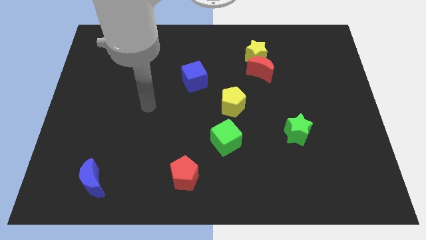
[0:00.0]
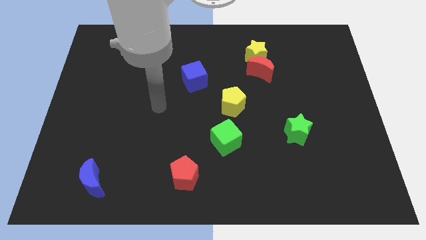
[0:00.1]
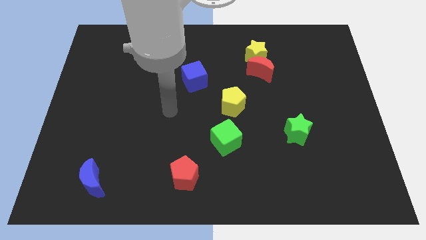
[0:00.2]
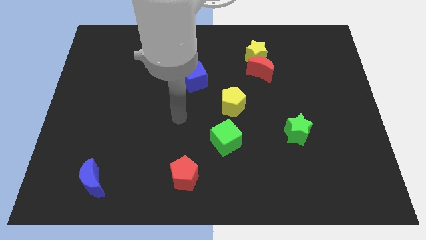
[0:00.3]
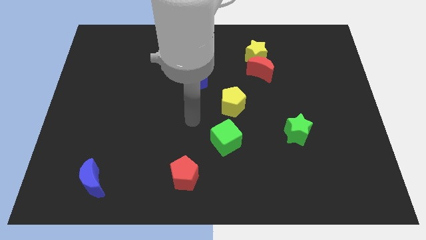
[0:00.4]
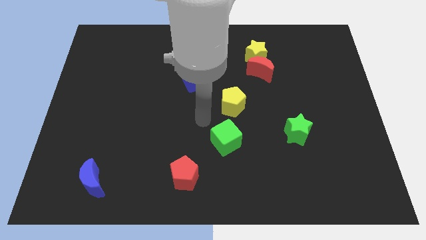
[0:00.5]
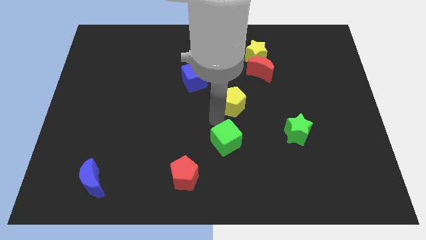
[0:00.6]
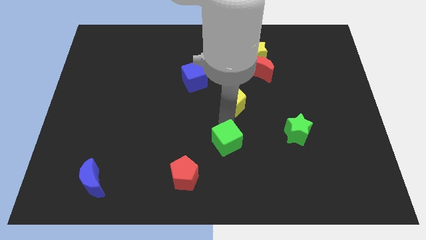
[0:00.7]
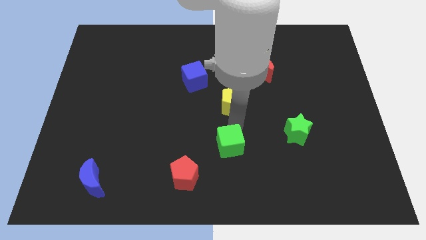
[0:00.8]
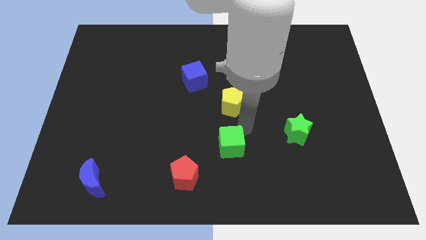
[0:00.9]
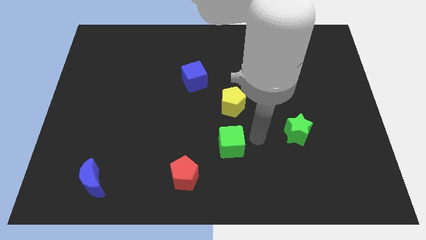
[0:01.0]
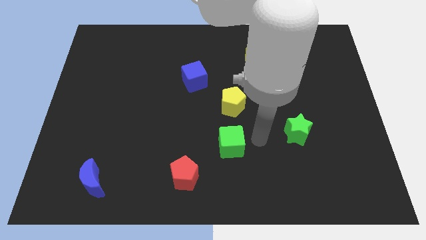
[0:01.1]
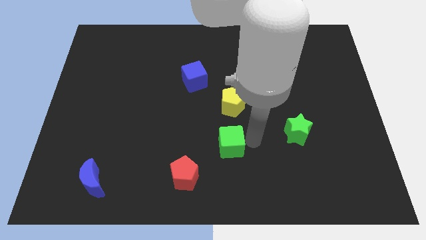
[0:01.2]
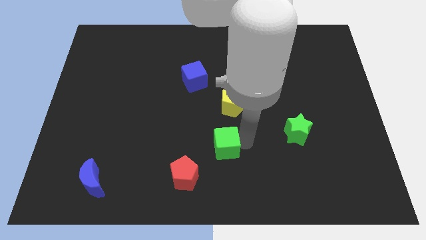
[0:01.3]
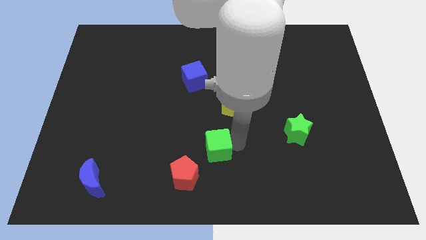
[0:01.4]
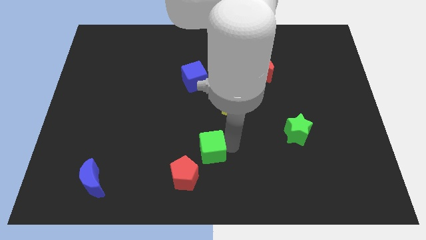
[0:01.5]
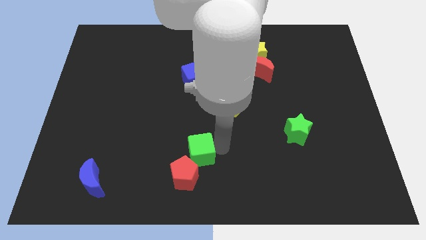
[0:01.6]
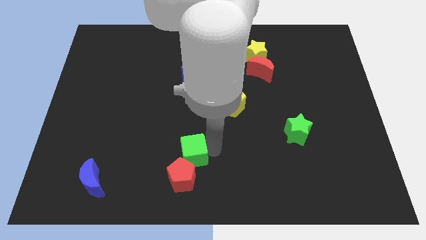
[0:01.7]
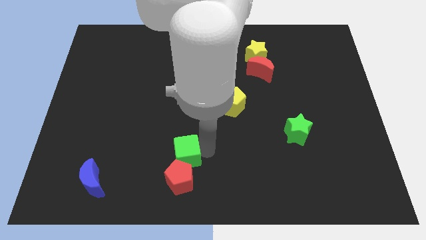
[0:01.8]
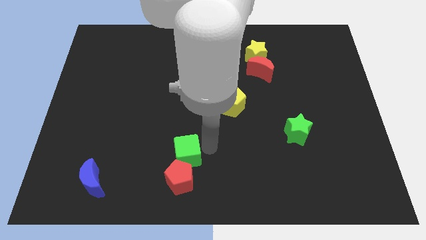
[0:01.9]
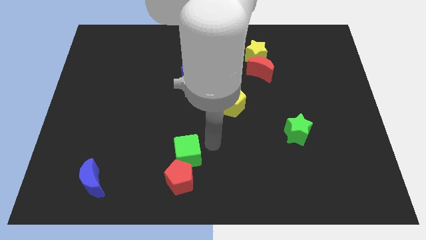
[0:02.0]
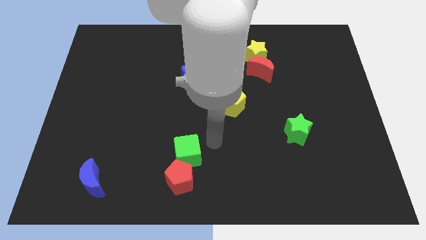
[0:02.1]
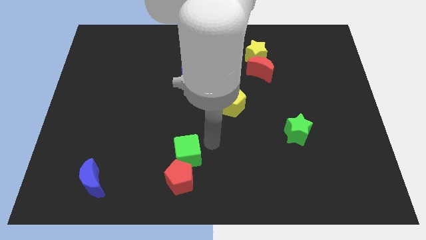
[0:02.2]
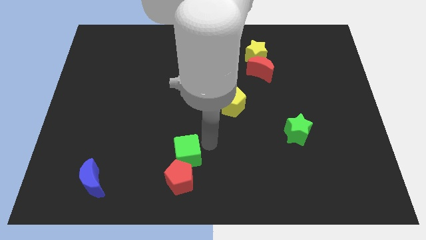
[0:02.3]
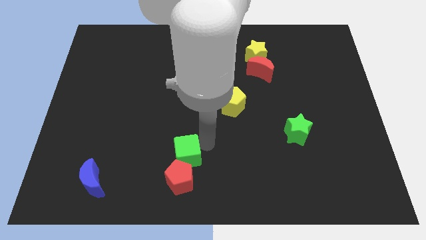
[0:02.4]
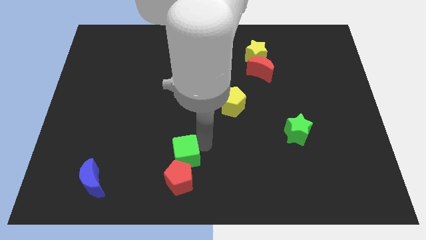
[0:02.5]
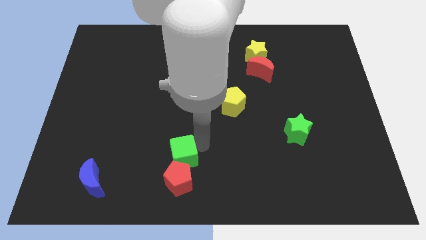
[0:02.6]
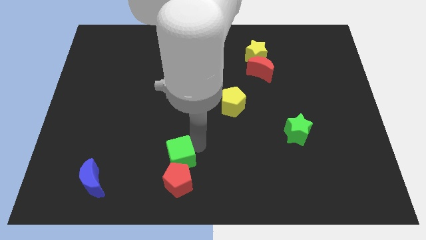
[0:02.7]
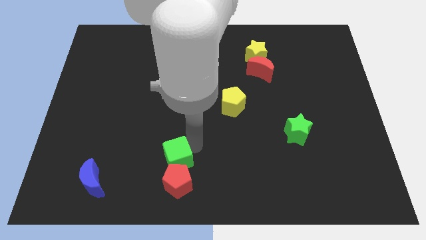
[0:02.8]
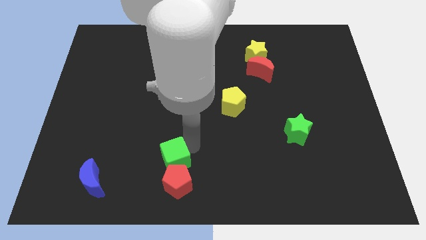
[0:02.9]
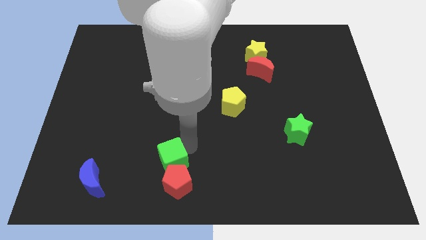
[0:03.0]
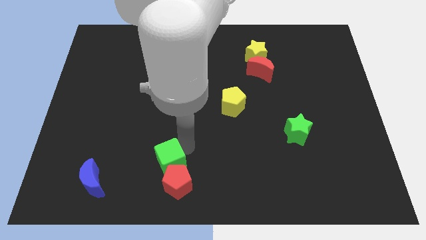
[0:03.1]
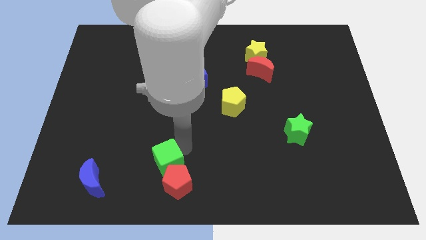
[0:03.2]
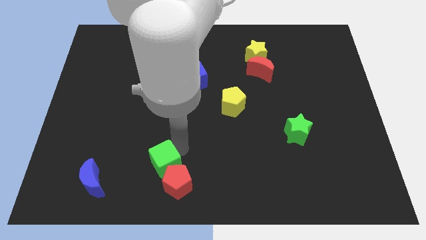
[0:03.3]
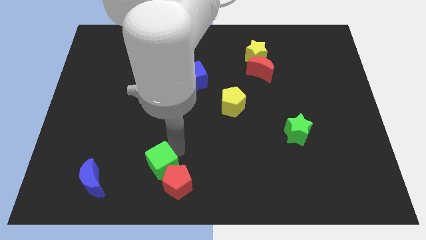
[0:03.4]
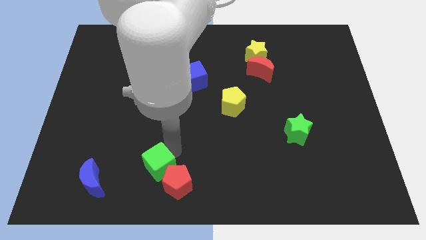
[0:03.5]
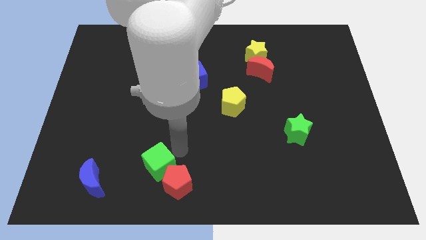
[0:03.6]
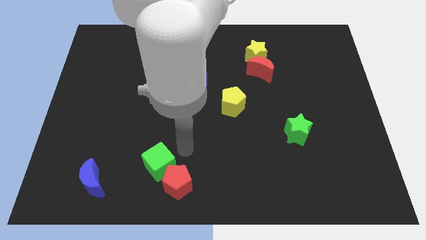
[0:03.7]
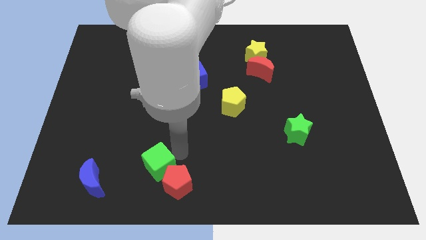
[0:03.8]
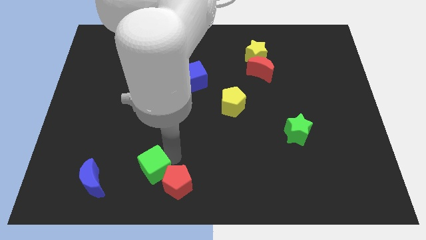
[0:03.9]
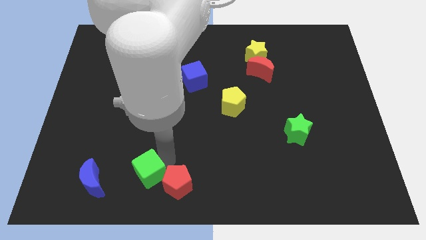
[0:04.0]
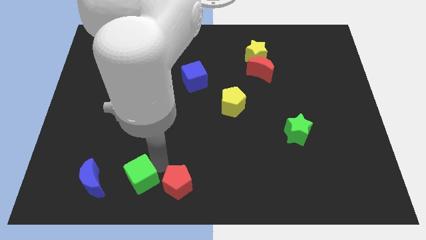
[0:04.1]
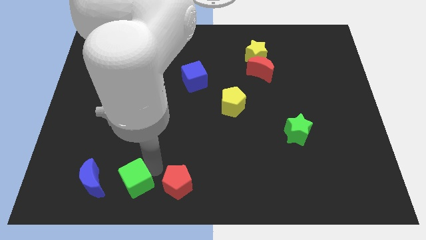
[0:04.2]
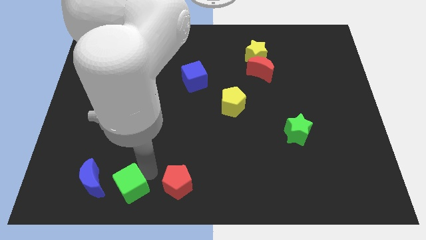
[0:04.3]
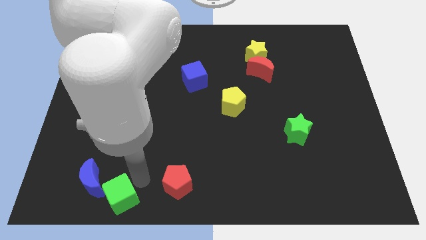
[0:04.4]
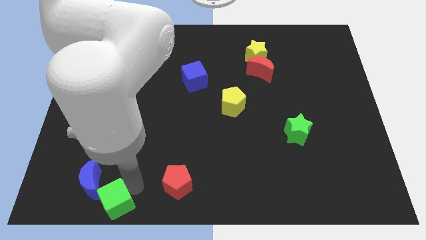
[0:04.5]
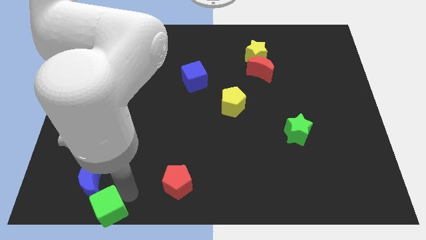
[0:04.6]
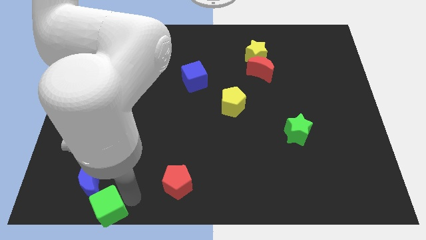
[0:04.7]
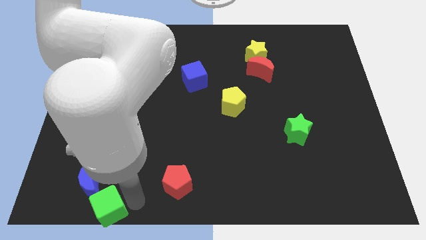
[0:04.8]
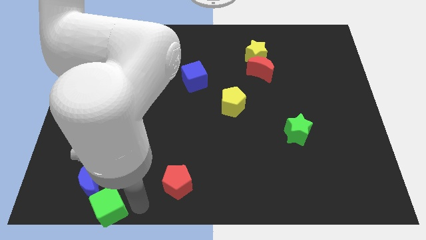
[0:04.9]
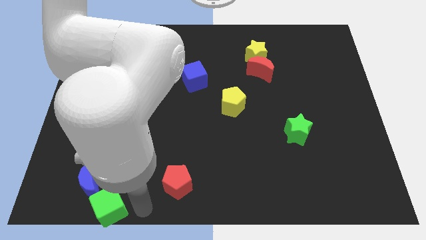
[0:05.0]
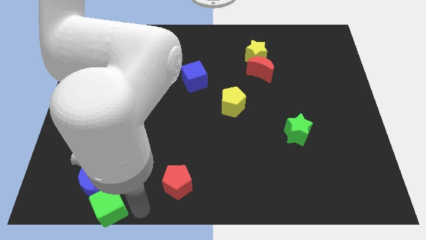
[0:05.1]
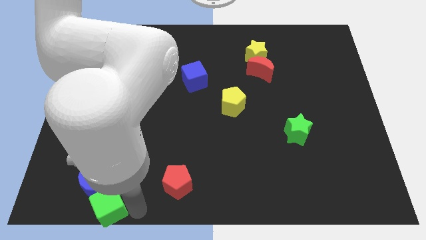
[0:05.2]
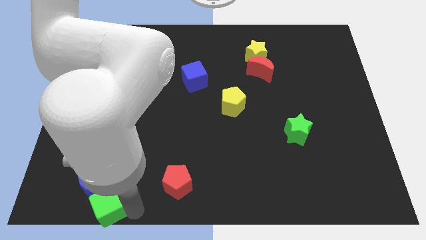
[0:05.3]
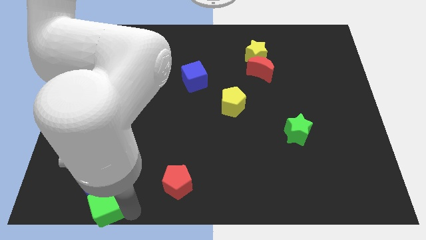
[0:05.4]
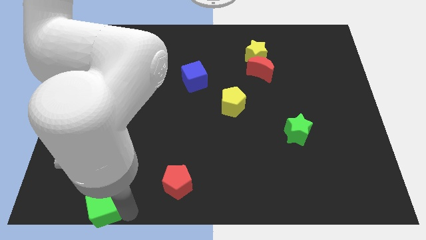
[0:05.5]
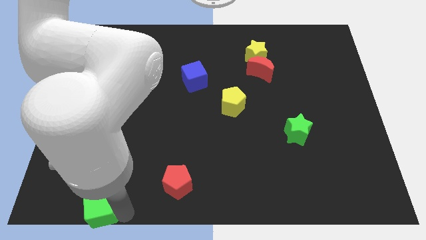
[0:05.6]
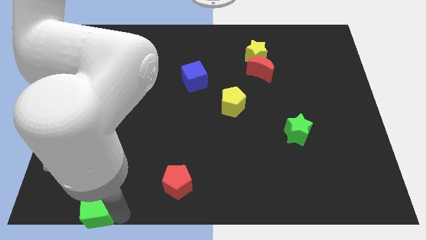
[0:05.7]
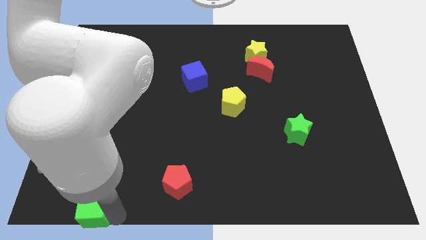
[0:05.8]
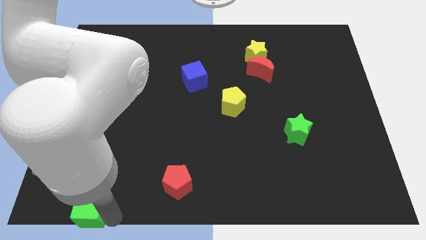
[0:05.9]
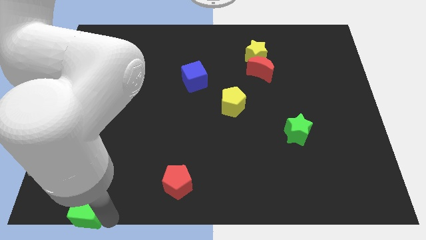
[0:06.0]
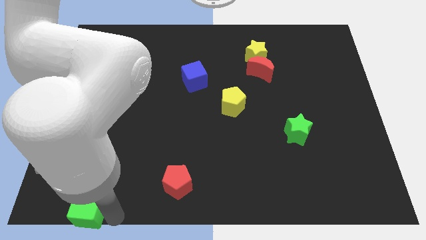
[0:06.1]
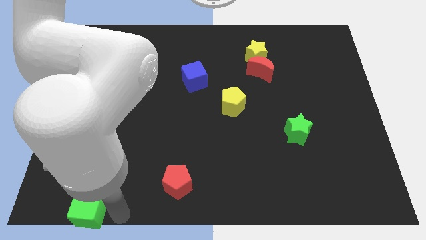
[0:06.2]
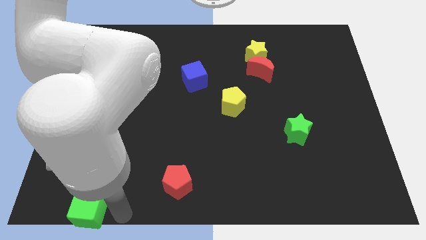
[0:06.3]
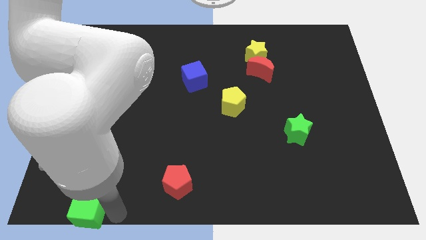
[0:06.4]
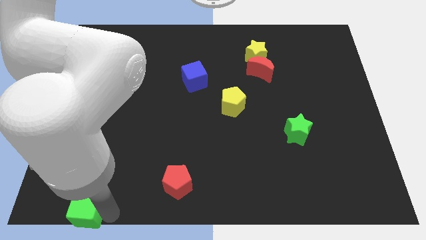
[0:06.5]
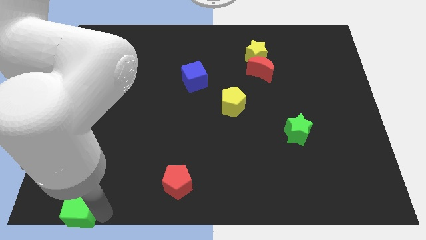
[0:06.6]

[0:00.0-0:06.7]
slide the green cube to the bottom left corner
